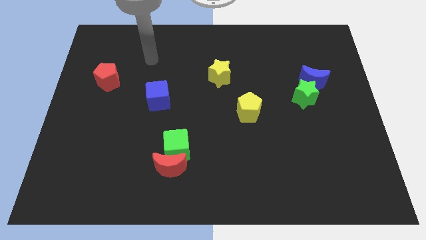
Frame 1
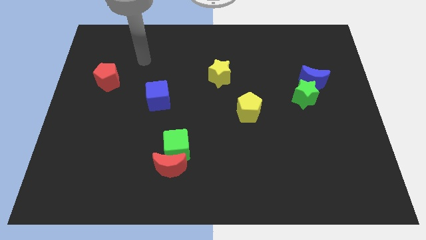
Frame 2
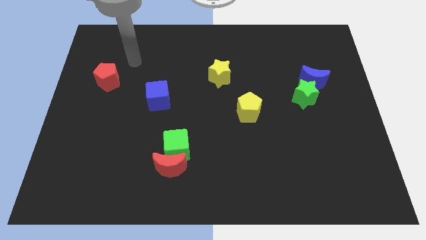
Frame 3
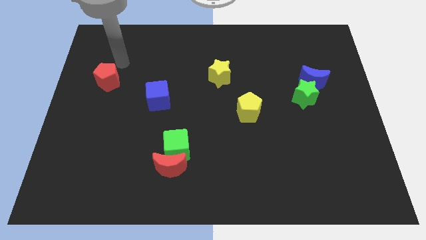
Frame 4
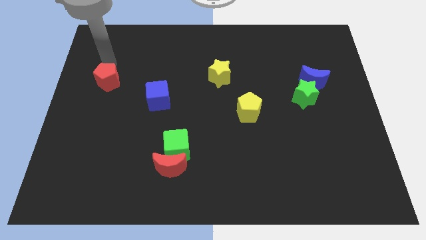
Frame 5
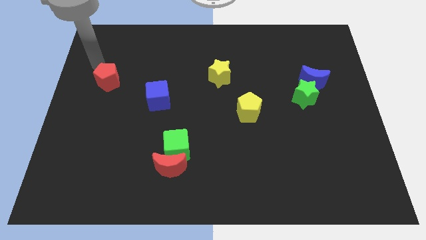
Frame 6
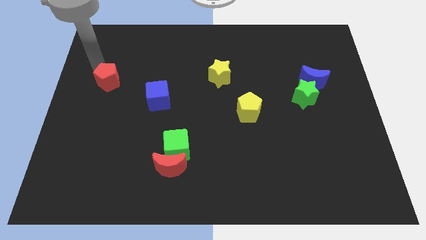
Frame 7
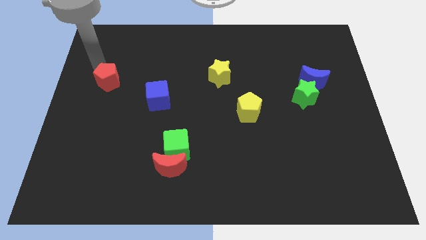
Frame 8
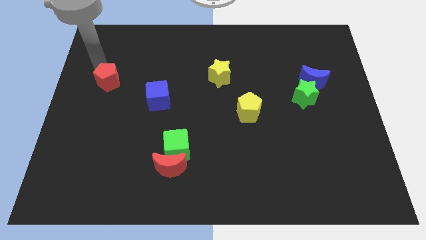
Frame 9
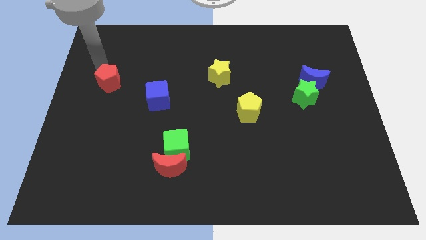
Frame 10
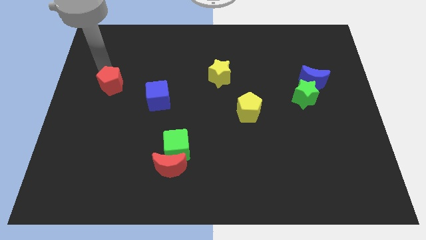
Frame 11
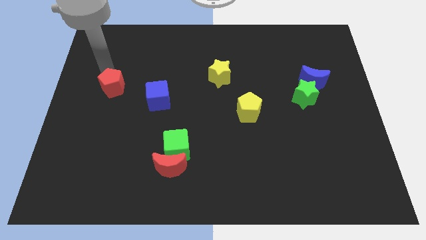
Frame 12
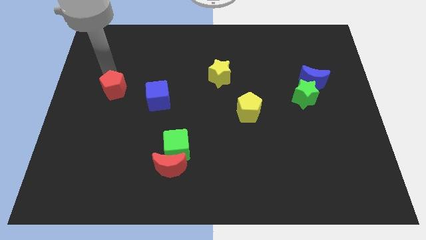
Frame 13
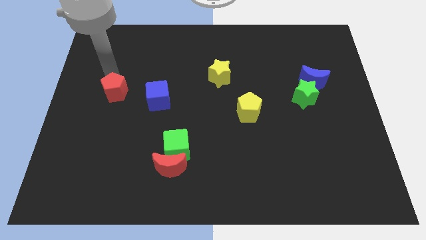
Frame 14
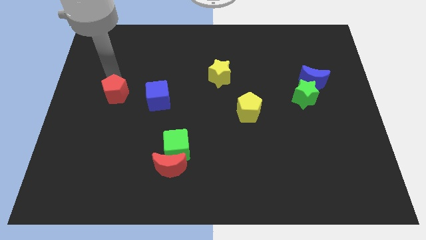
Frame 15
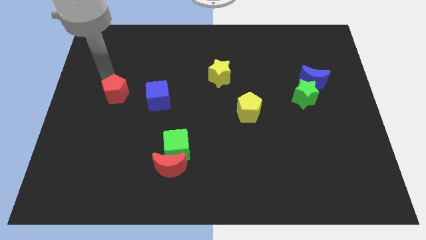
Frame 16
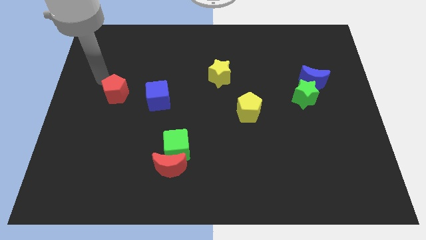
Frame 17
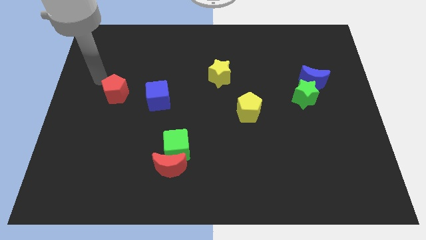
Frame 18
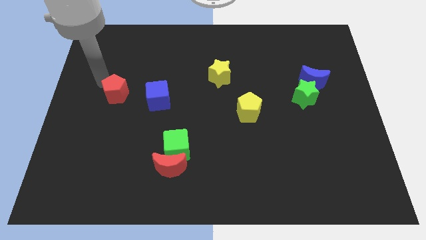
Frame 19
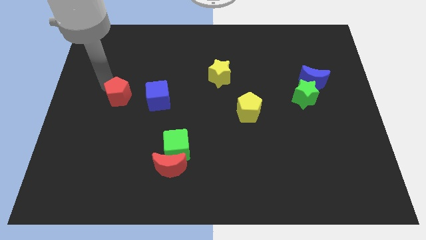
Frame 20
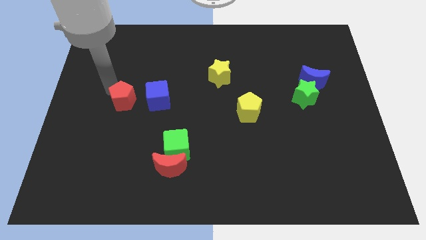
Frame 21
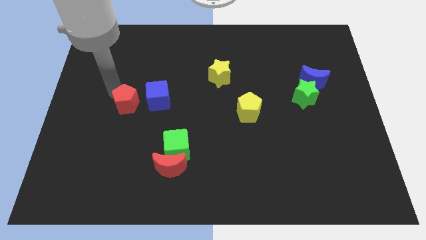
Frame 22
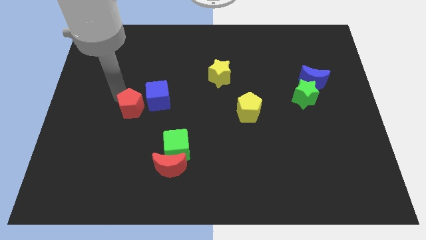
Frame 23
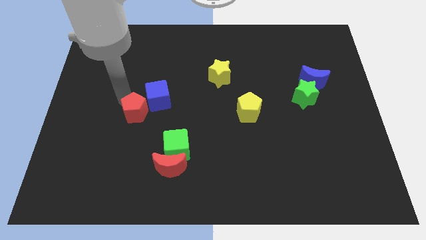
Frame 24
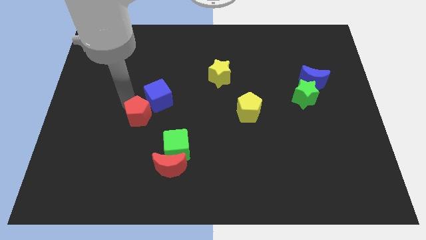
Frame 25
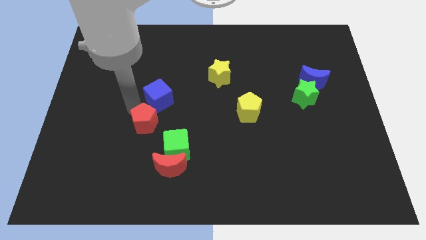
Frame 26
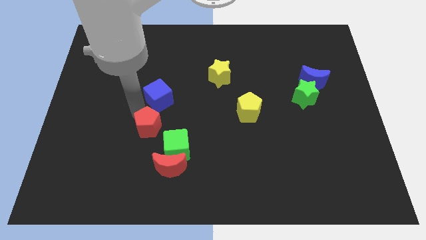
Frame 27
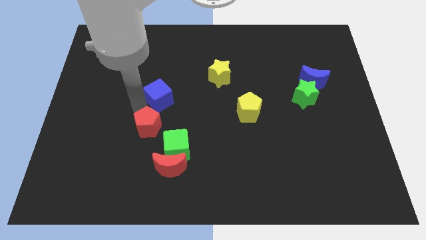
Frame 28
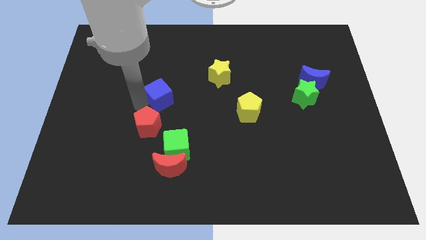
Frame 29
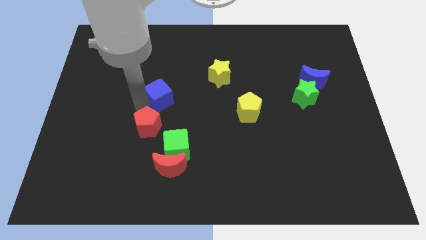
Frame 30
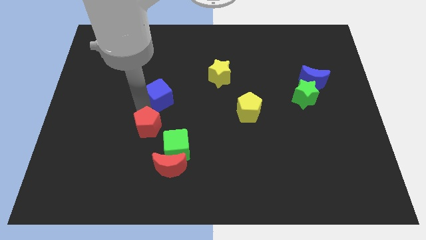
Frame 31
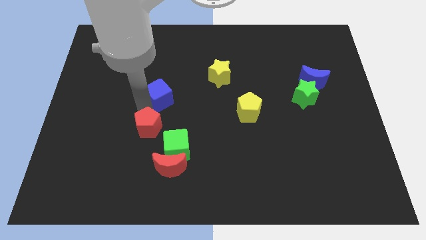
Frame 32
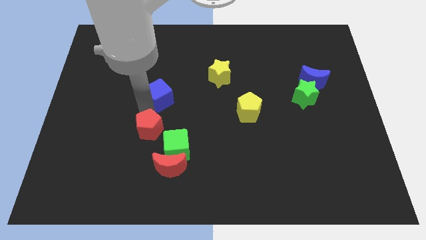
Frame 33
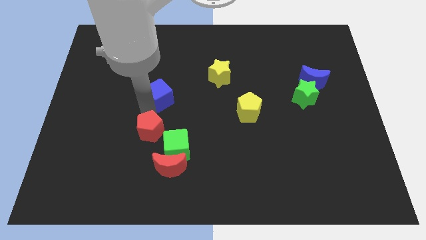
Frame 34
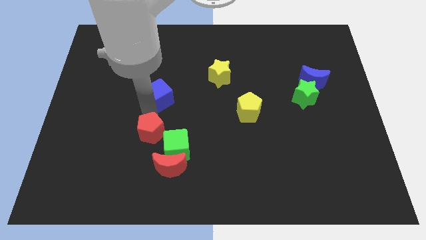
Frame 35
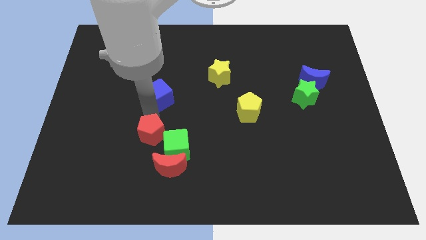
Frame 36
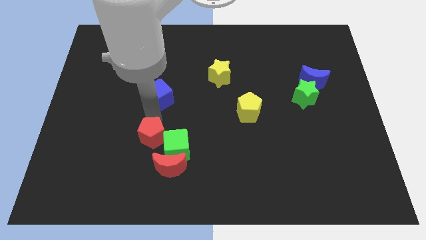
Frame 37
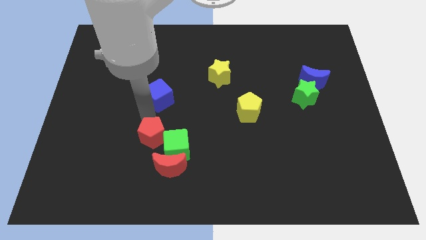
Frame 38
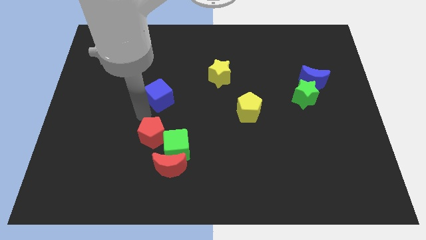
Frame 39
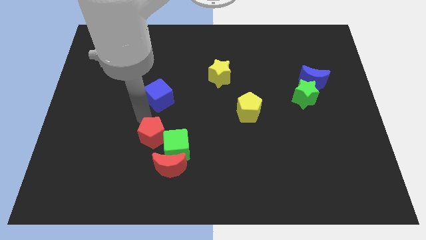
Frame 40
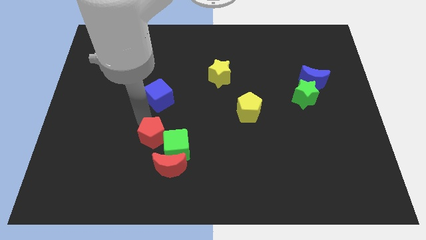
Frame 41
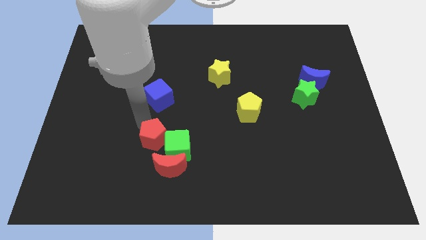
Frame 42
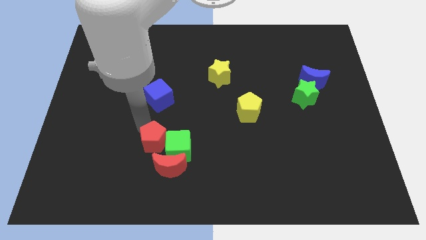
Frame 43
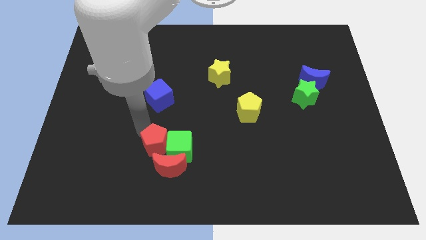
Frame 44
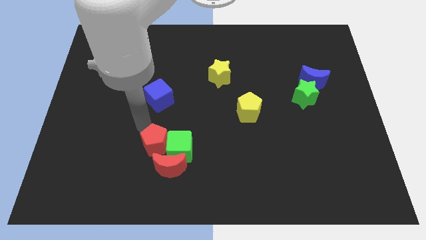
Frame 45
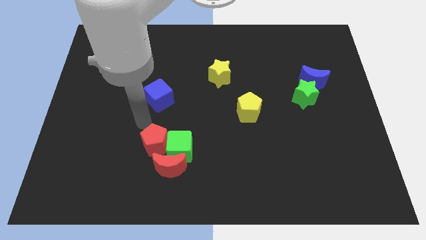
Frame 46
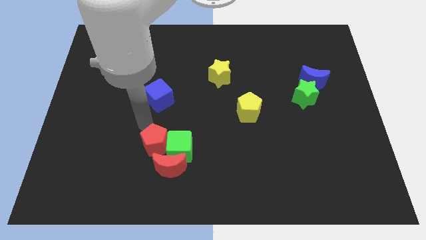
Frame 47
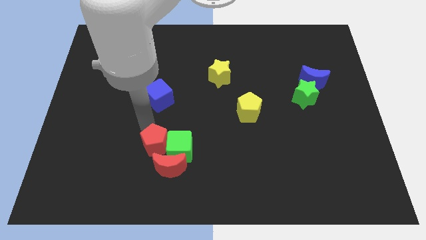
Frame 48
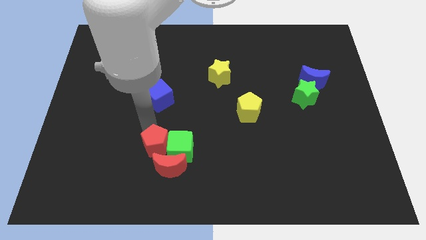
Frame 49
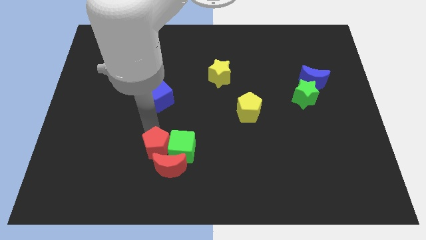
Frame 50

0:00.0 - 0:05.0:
slide the red pentagon to the red moon

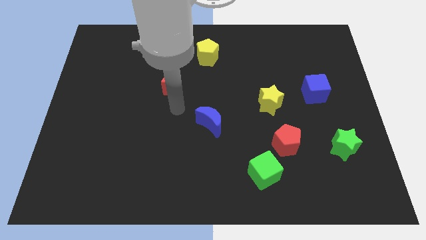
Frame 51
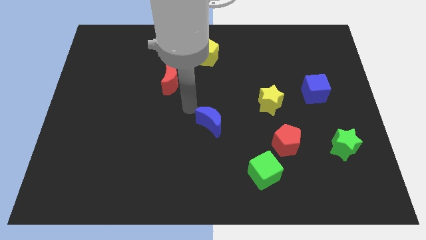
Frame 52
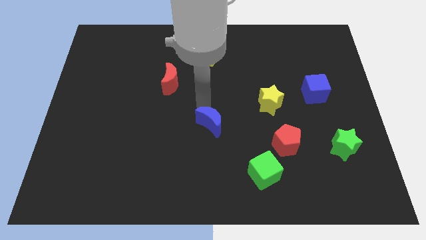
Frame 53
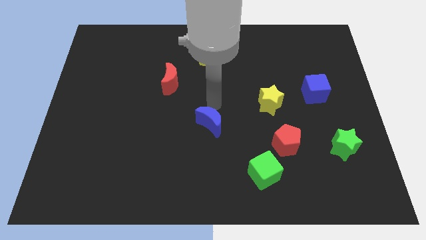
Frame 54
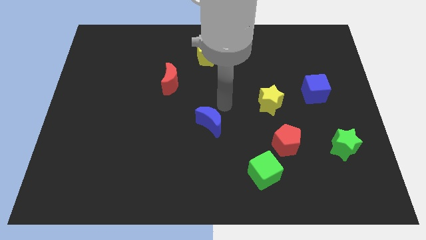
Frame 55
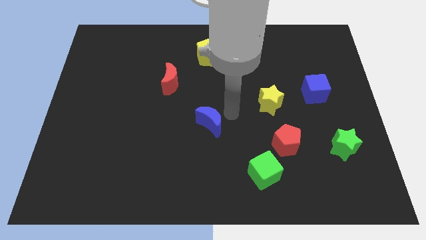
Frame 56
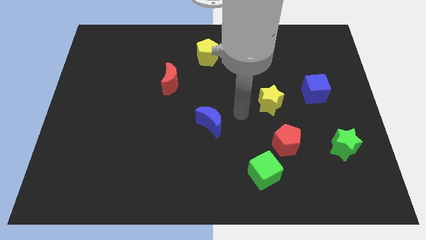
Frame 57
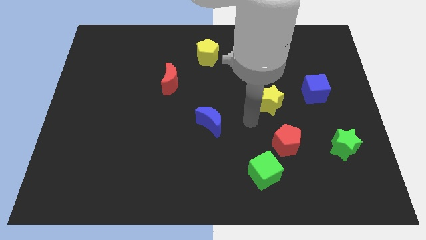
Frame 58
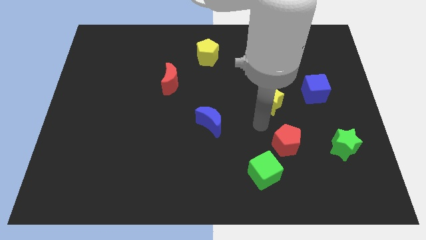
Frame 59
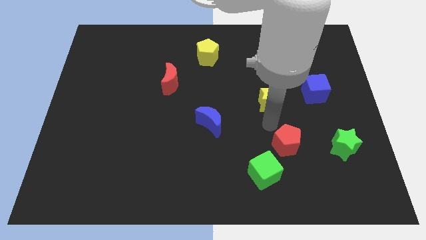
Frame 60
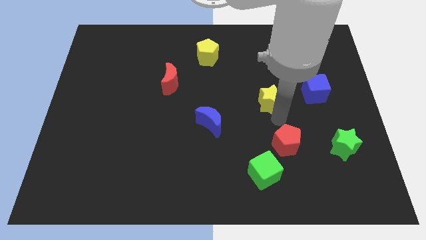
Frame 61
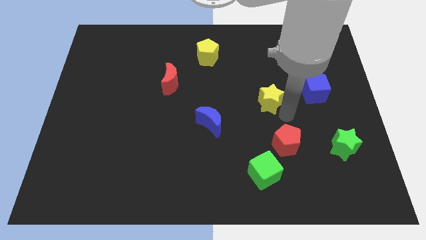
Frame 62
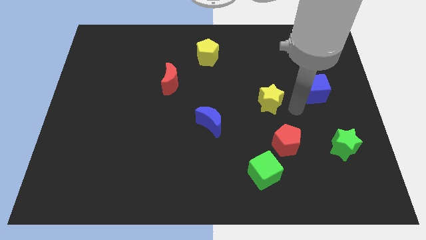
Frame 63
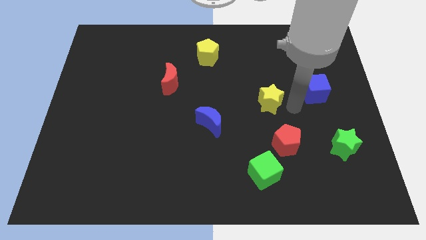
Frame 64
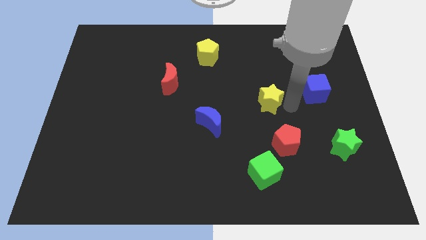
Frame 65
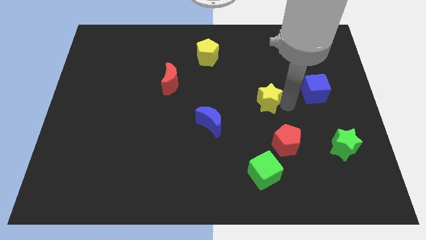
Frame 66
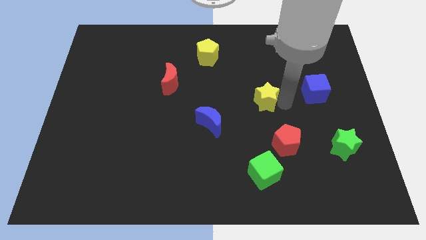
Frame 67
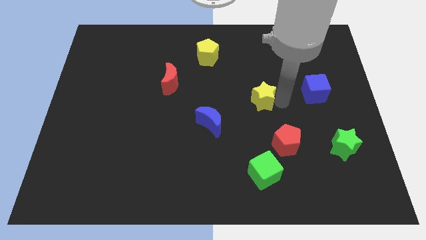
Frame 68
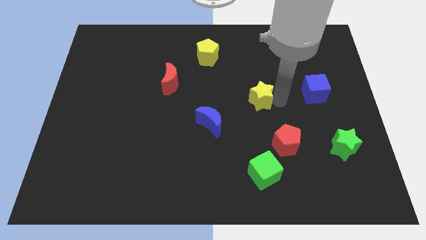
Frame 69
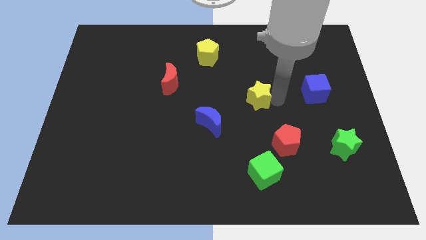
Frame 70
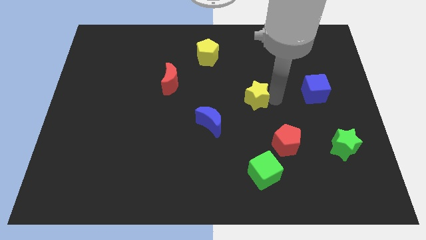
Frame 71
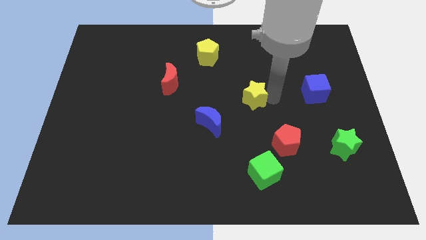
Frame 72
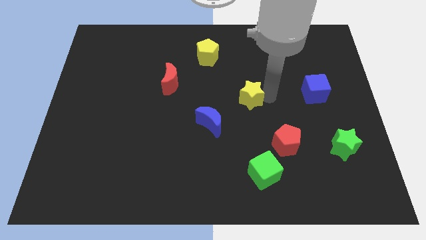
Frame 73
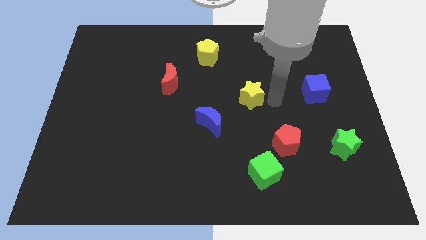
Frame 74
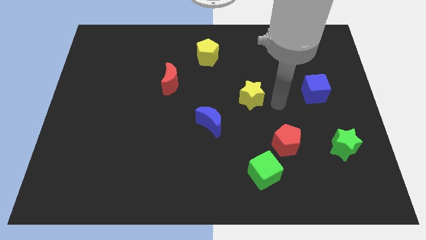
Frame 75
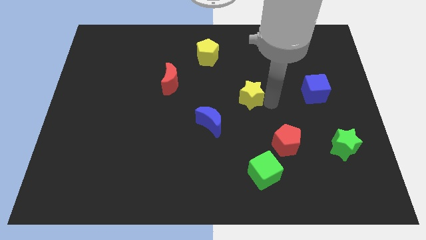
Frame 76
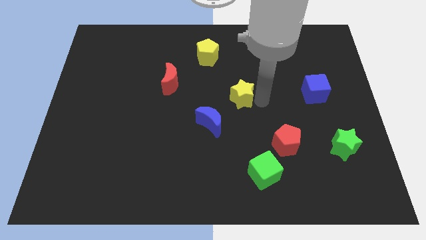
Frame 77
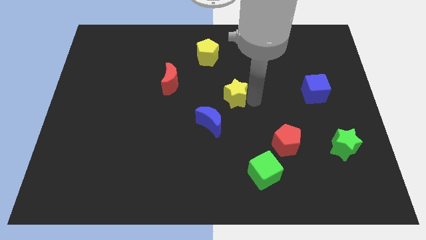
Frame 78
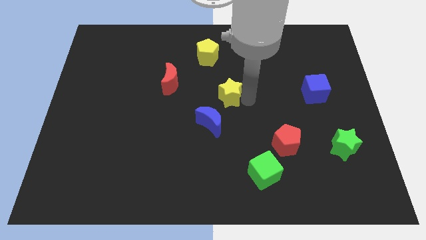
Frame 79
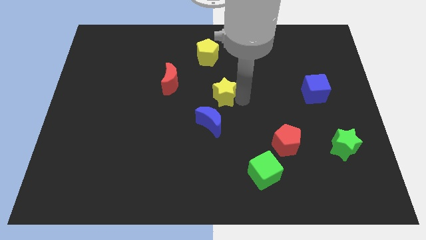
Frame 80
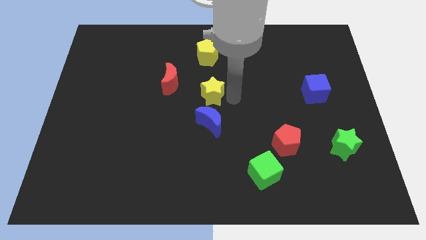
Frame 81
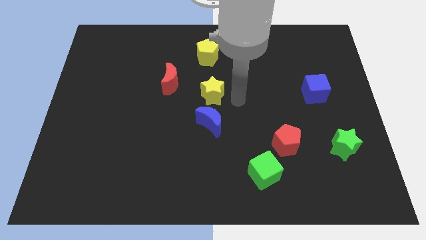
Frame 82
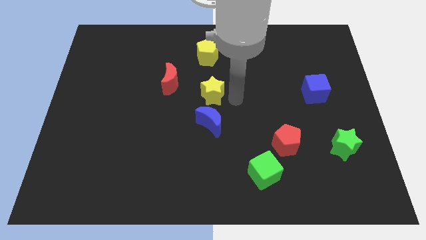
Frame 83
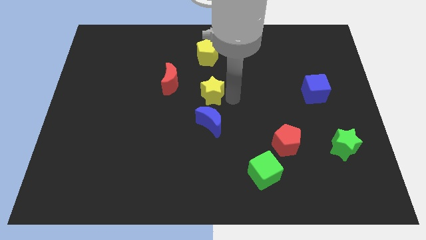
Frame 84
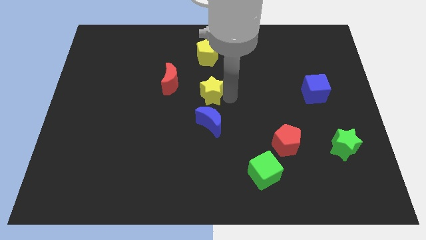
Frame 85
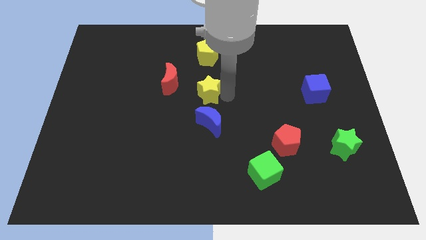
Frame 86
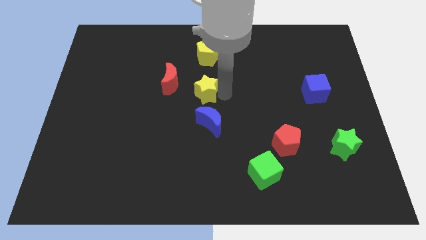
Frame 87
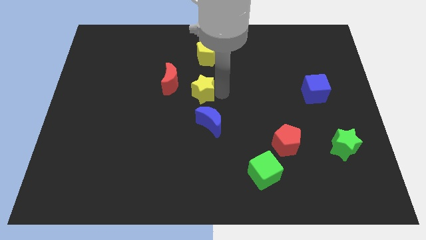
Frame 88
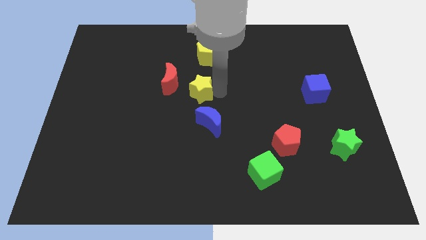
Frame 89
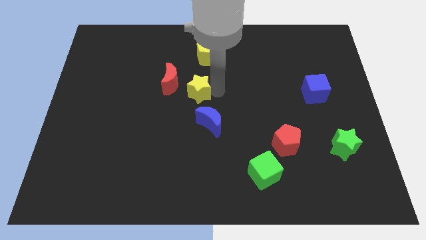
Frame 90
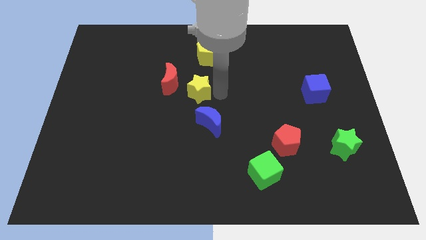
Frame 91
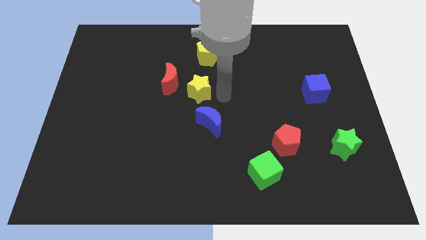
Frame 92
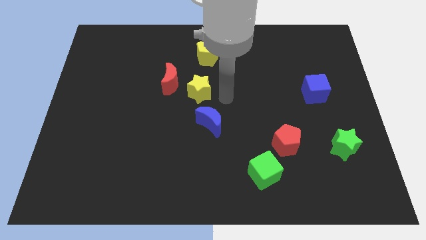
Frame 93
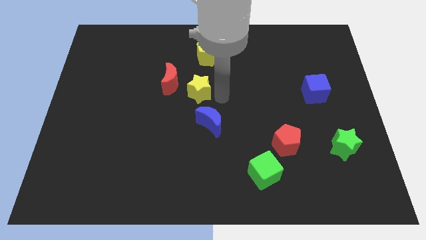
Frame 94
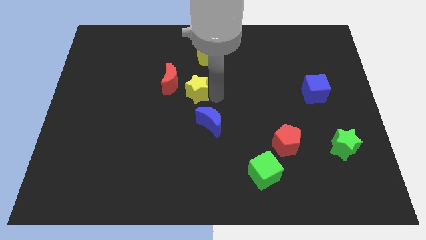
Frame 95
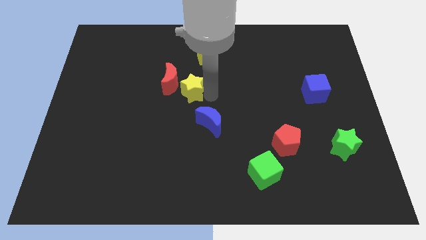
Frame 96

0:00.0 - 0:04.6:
slide the yellow star close to the red moon
